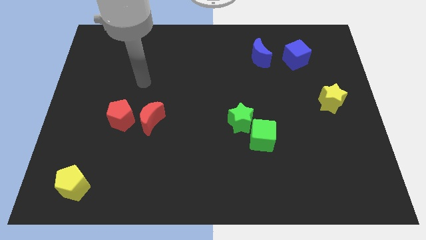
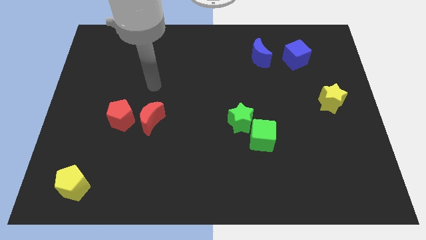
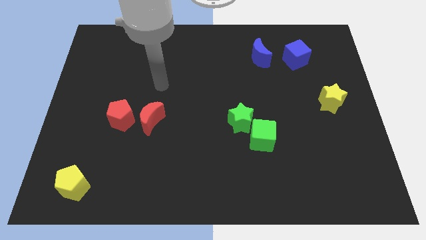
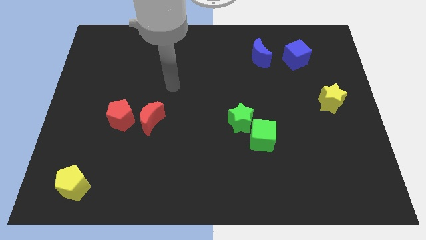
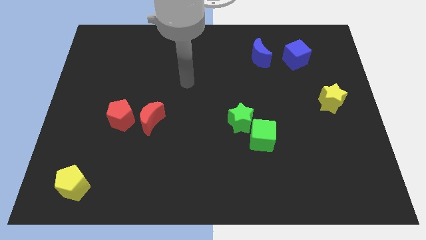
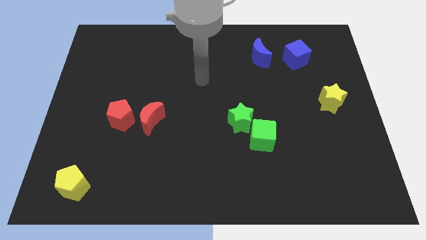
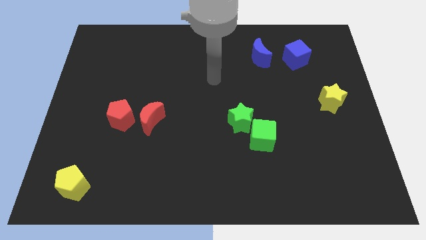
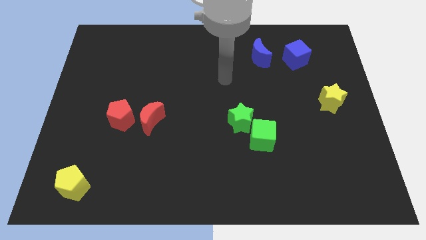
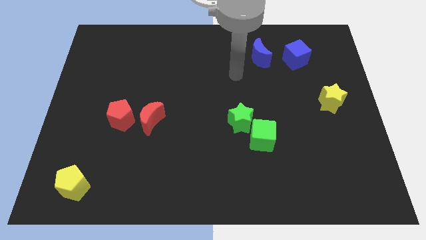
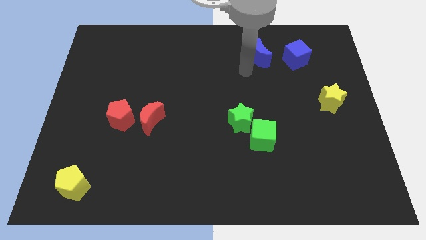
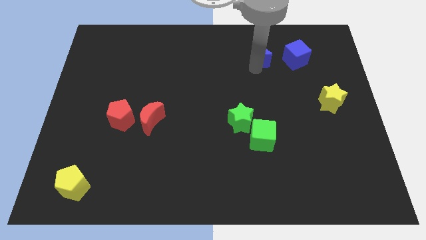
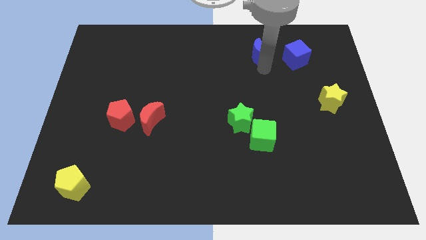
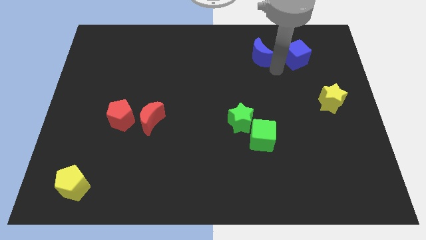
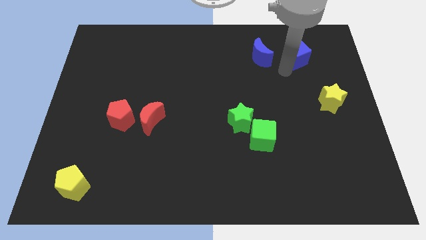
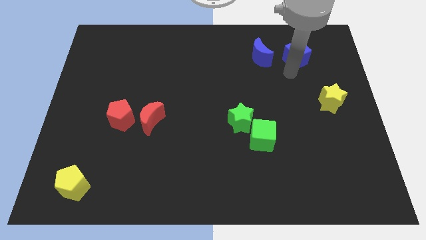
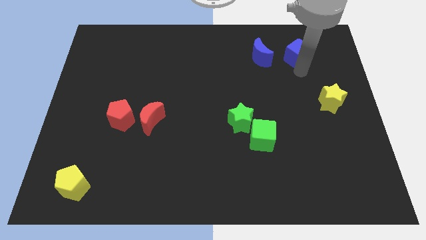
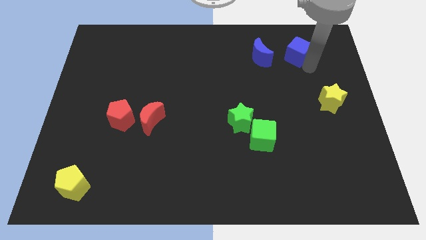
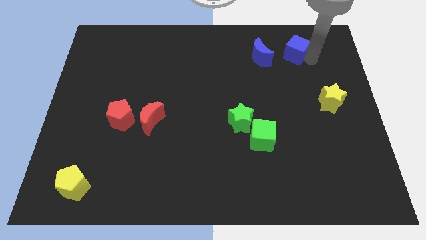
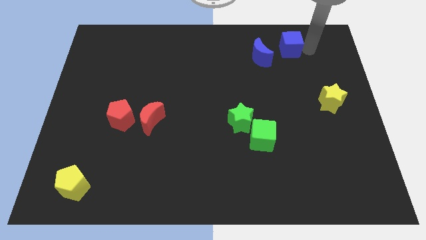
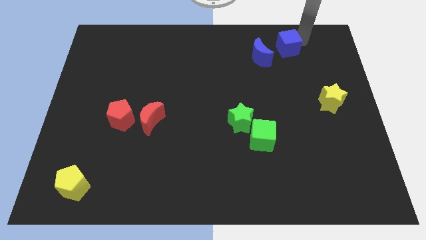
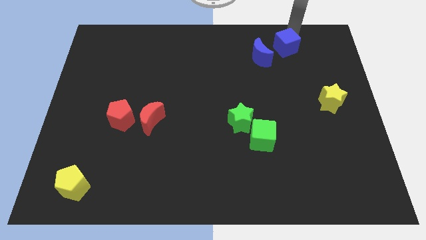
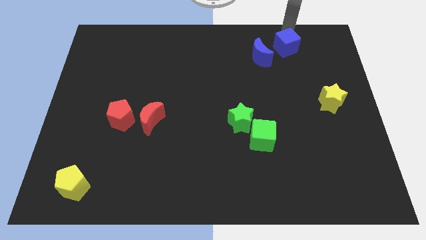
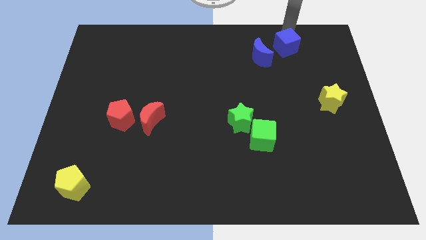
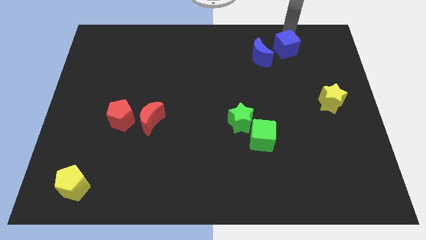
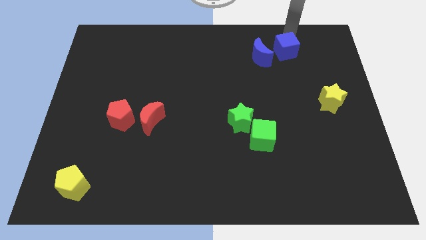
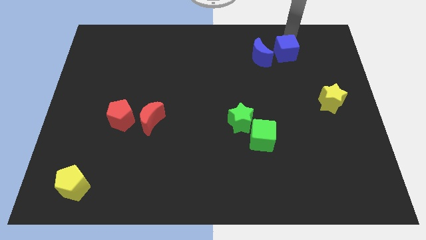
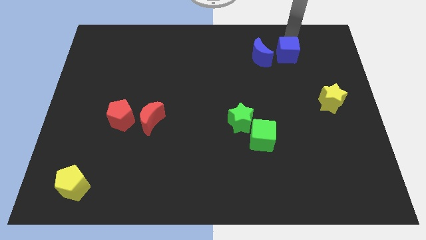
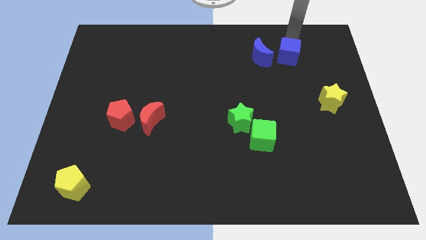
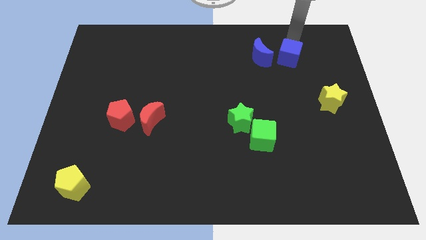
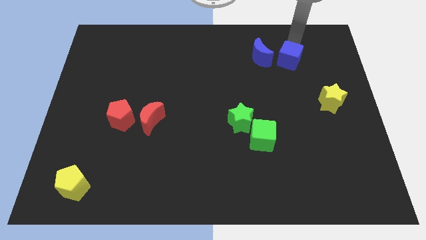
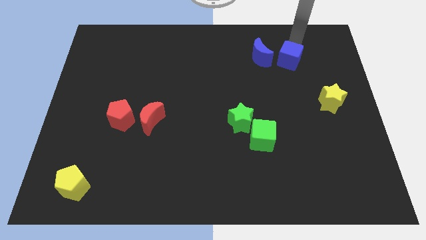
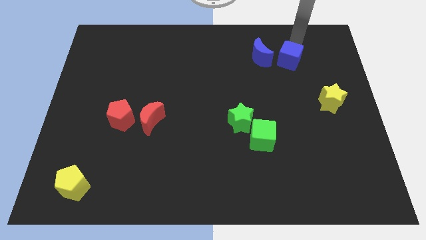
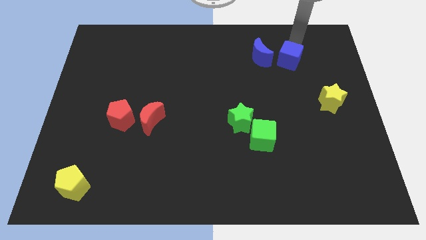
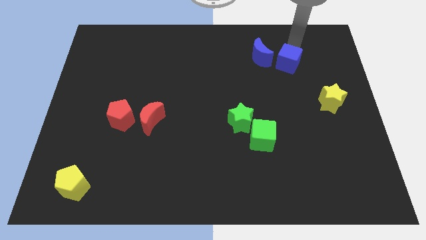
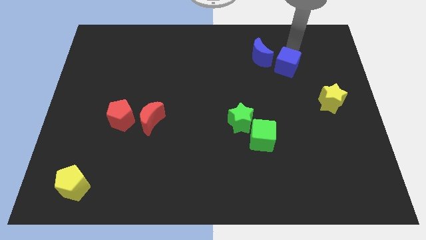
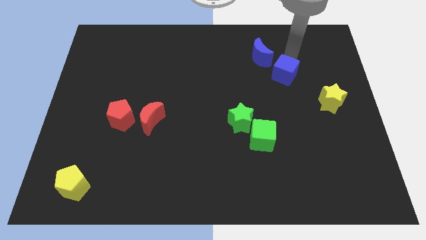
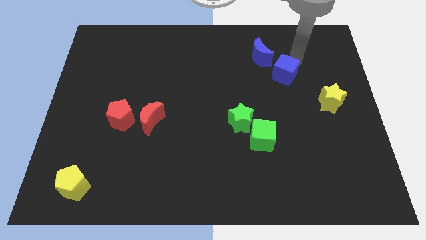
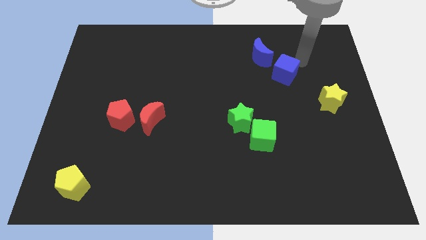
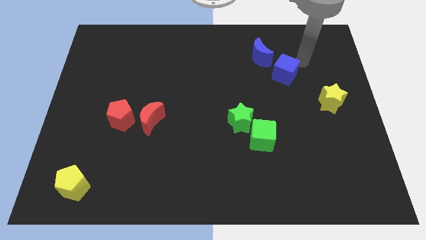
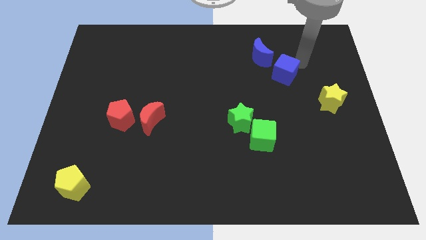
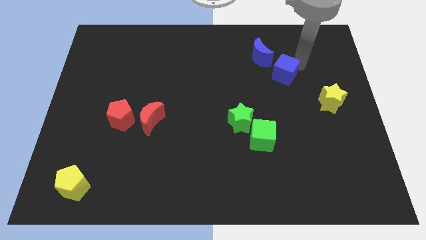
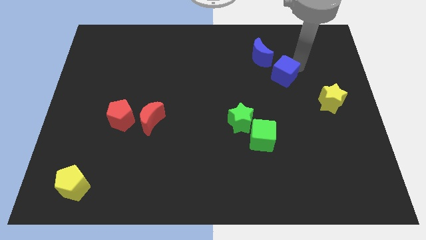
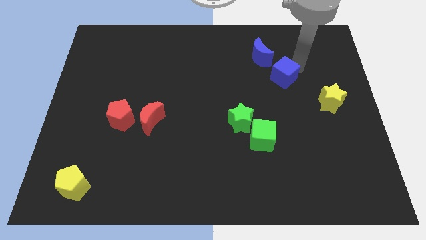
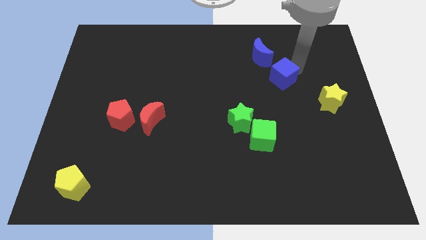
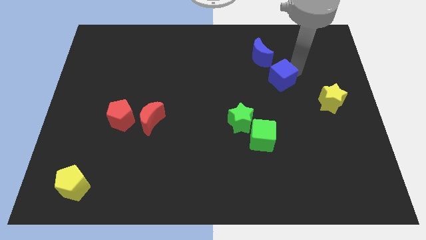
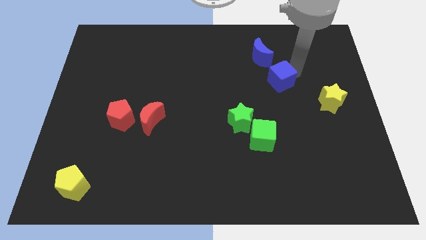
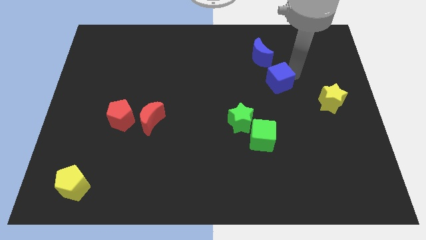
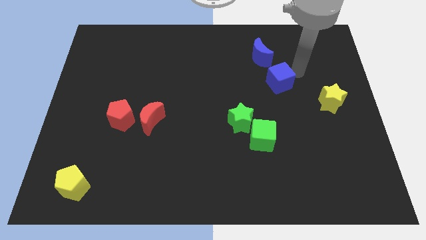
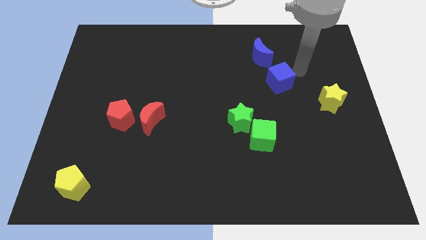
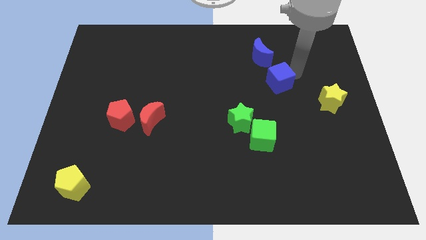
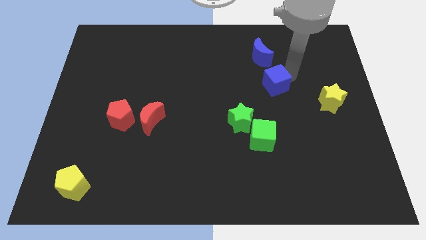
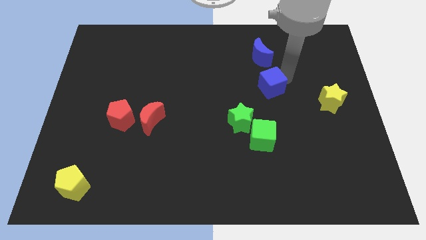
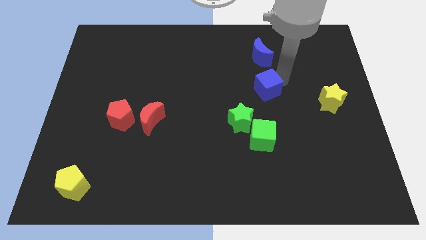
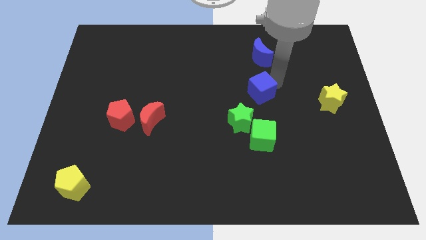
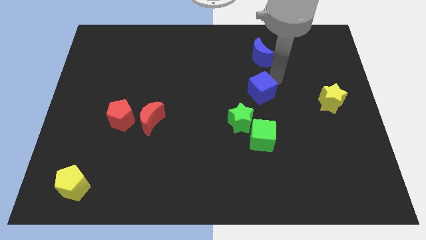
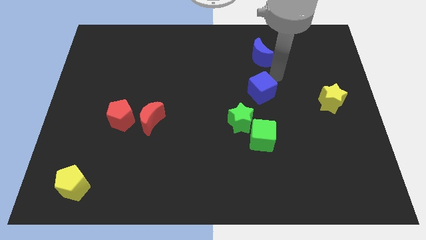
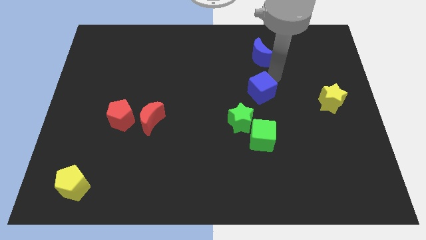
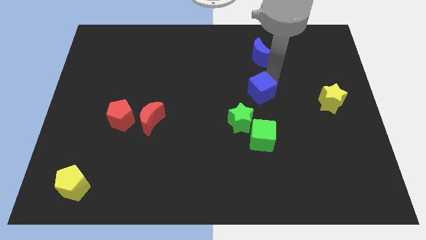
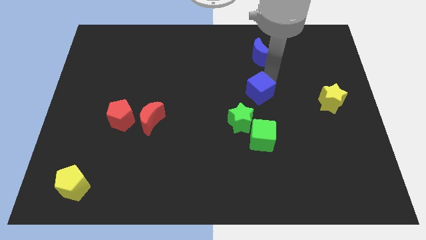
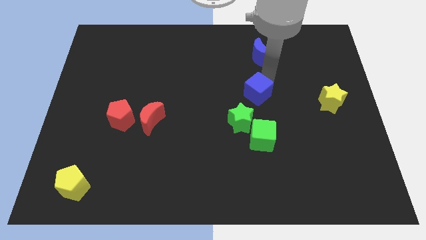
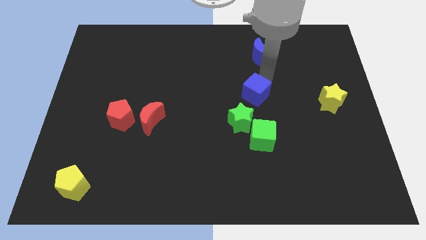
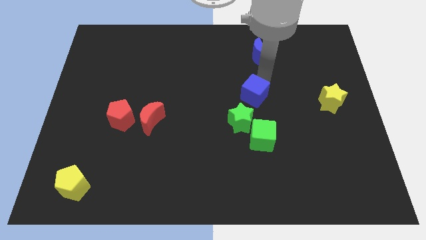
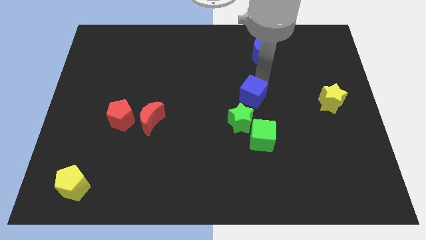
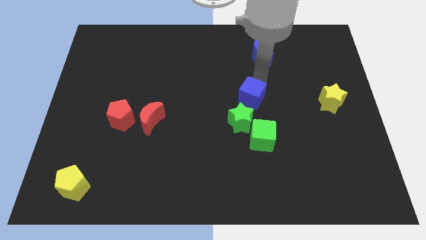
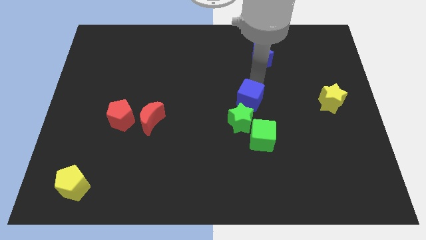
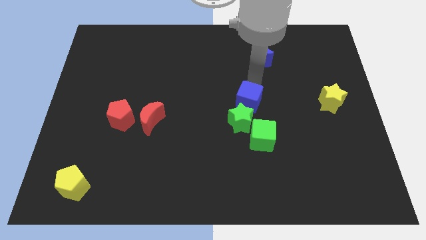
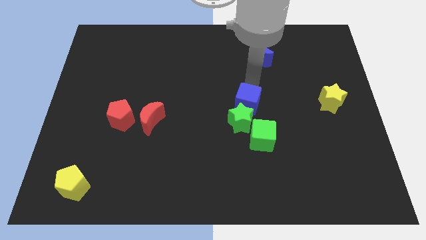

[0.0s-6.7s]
push the blue cube close to the green star
